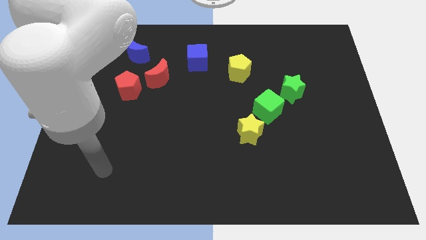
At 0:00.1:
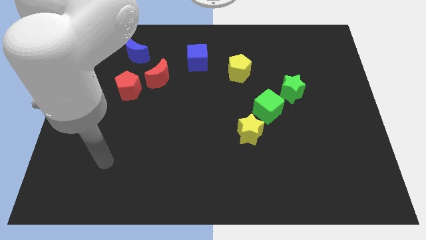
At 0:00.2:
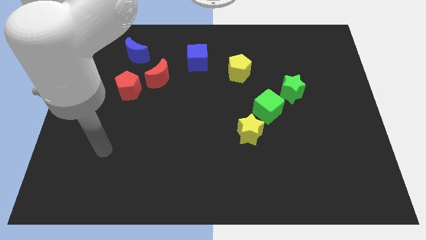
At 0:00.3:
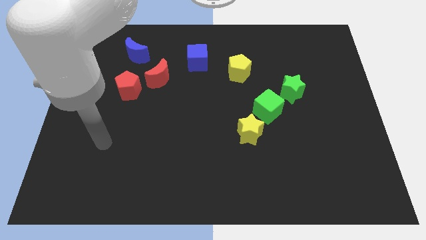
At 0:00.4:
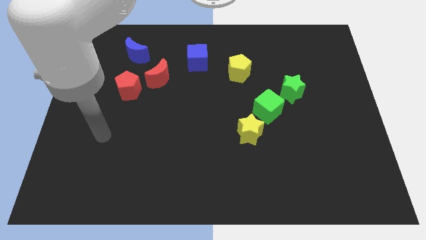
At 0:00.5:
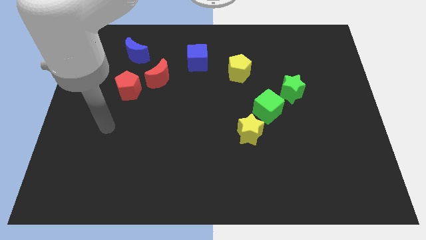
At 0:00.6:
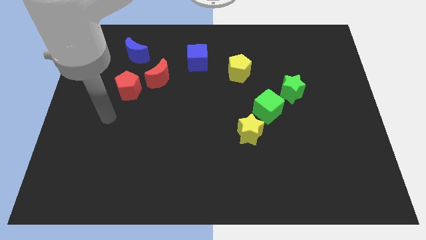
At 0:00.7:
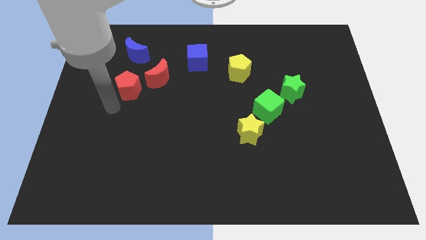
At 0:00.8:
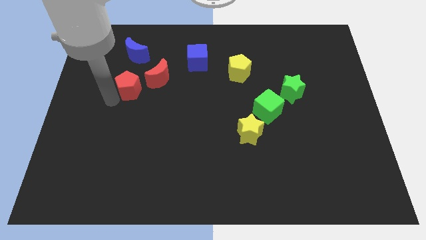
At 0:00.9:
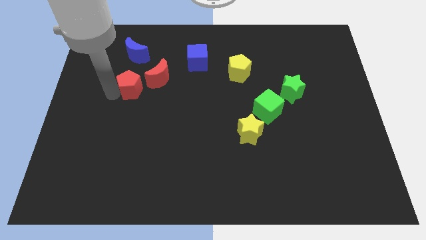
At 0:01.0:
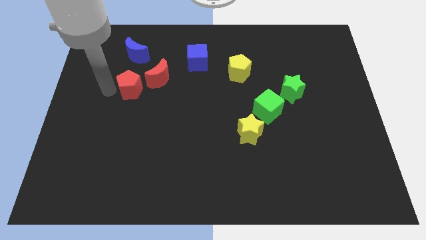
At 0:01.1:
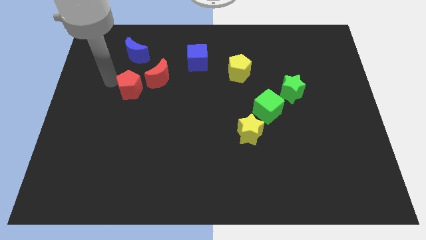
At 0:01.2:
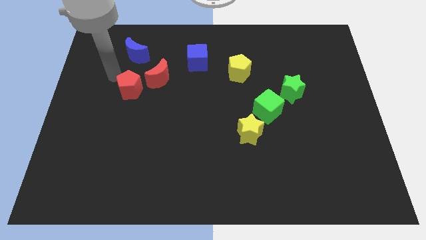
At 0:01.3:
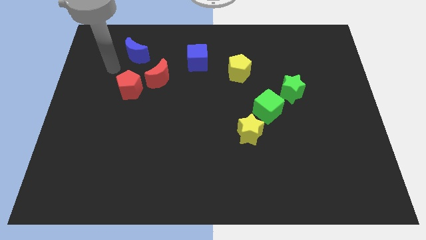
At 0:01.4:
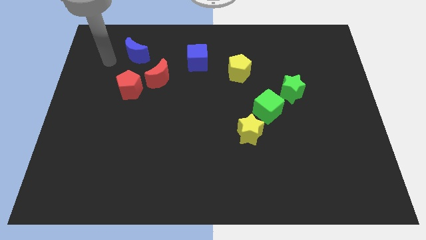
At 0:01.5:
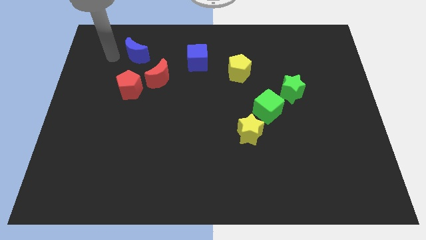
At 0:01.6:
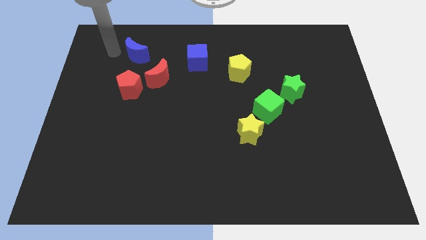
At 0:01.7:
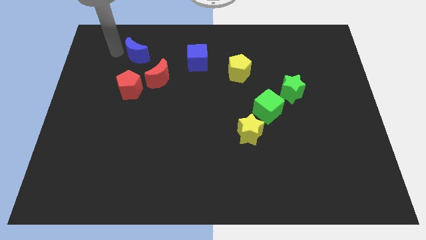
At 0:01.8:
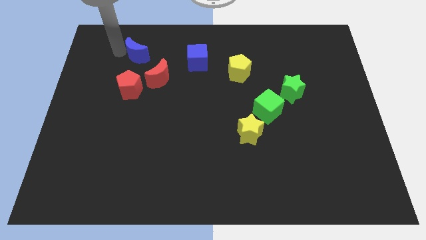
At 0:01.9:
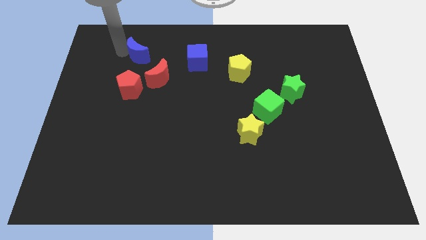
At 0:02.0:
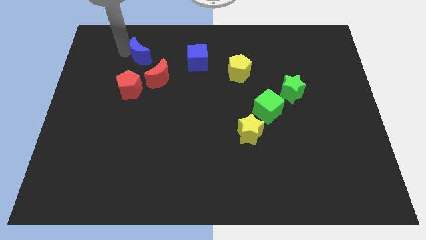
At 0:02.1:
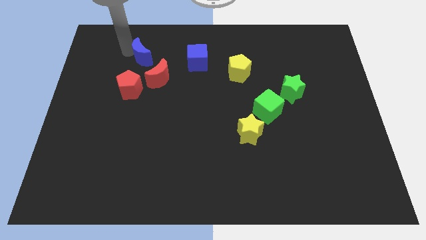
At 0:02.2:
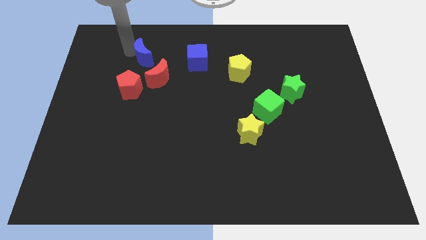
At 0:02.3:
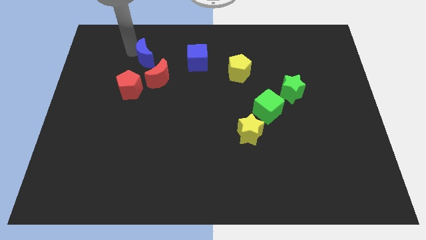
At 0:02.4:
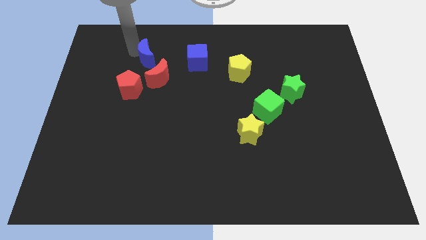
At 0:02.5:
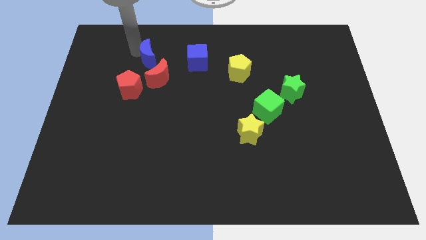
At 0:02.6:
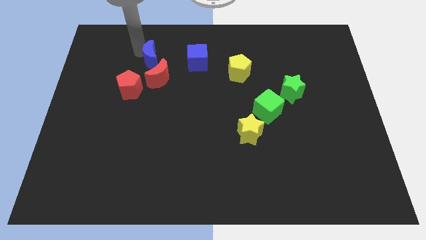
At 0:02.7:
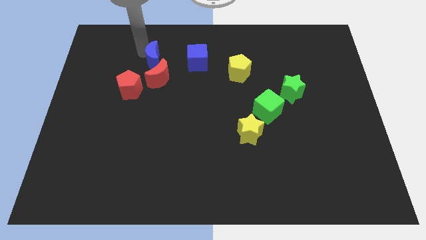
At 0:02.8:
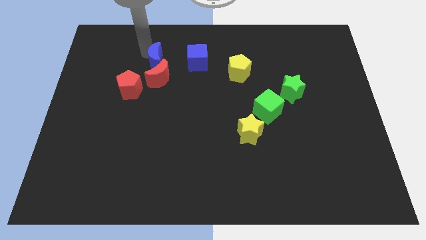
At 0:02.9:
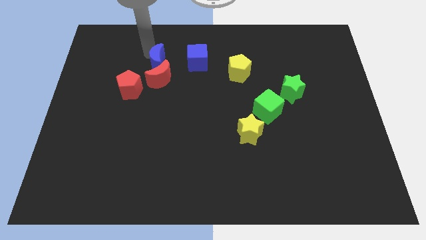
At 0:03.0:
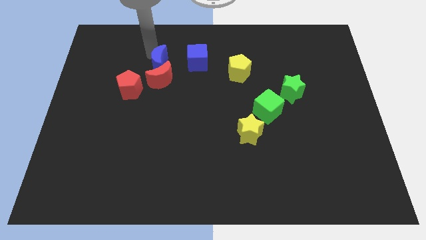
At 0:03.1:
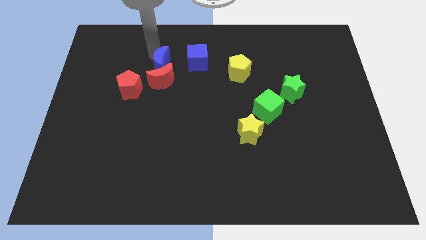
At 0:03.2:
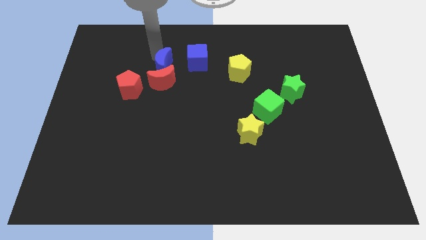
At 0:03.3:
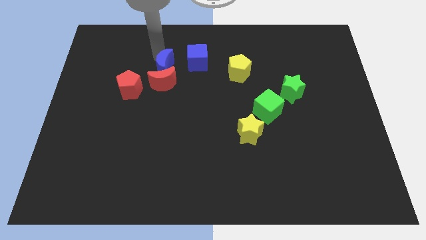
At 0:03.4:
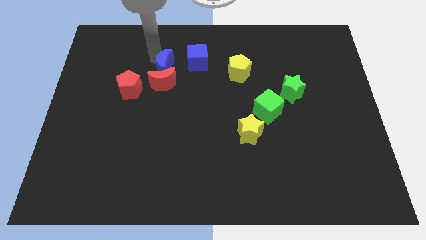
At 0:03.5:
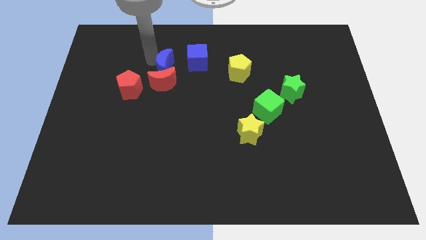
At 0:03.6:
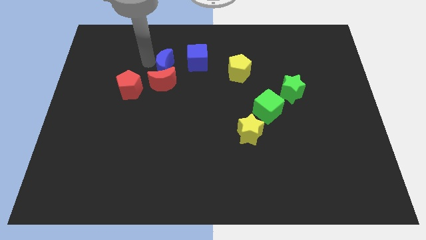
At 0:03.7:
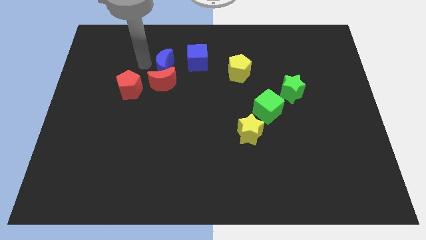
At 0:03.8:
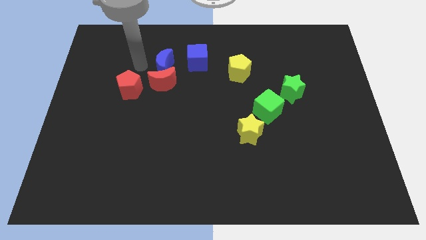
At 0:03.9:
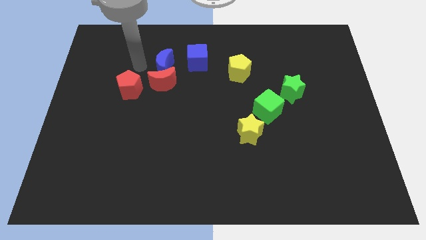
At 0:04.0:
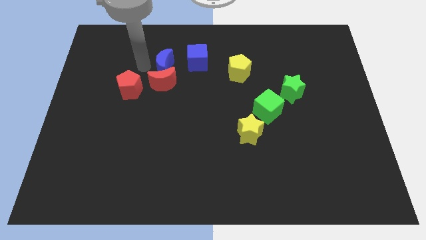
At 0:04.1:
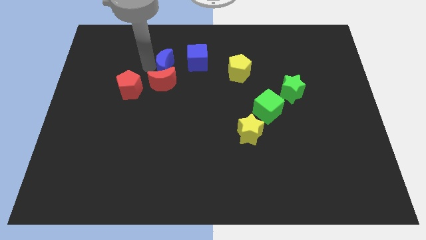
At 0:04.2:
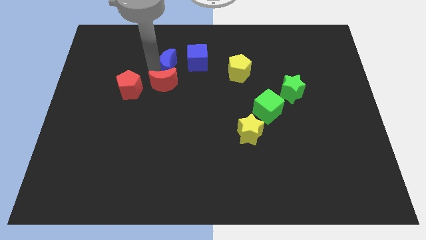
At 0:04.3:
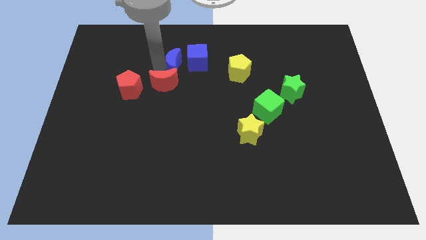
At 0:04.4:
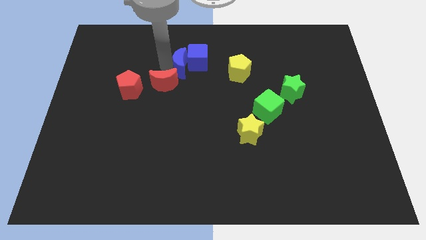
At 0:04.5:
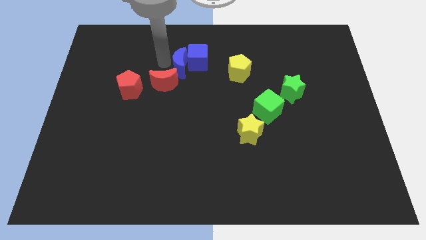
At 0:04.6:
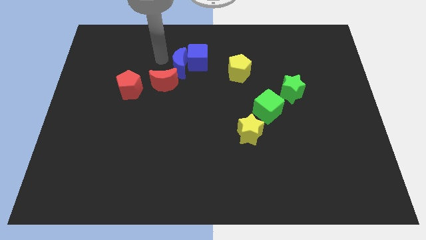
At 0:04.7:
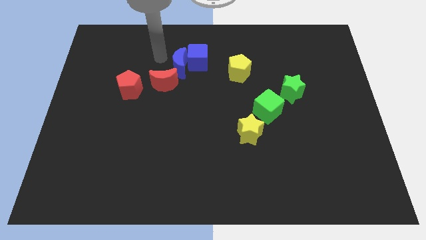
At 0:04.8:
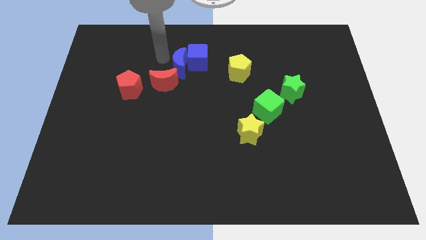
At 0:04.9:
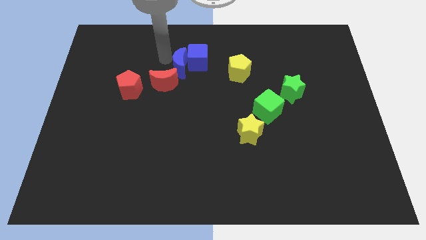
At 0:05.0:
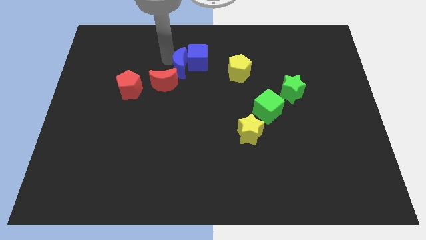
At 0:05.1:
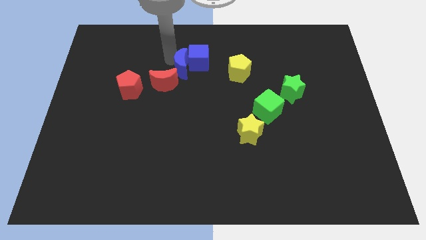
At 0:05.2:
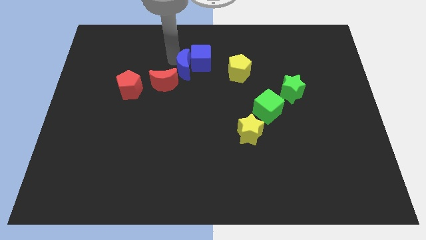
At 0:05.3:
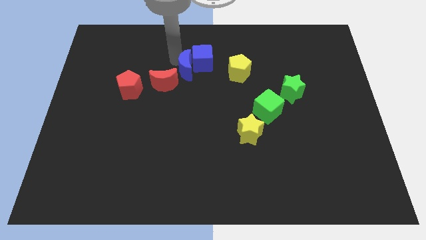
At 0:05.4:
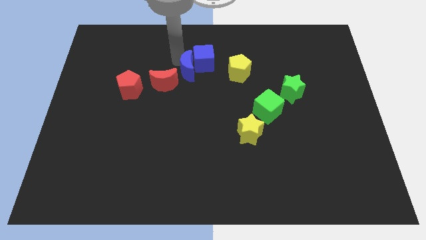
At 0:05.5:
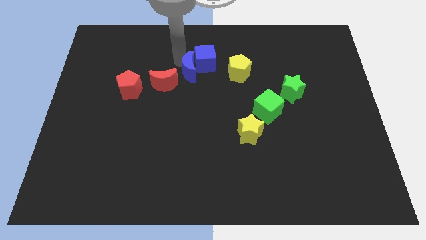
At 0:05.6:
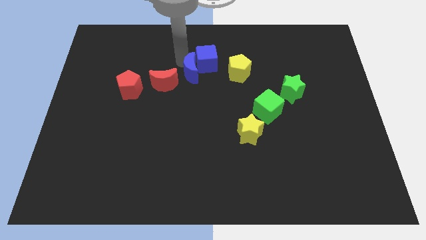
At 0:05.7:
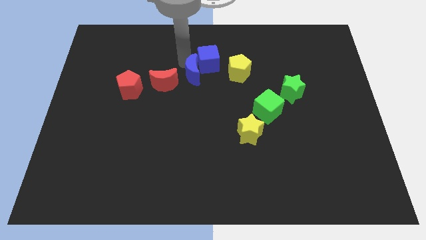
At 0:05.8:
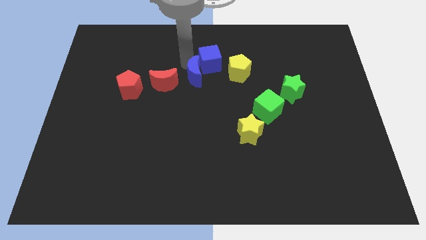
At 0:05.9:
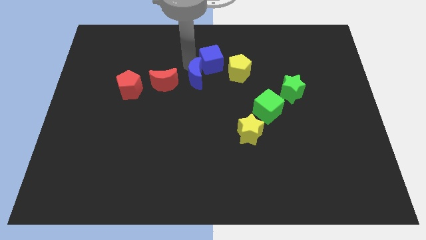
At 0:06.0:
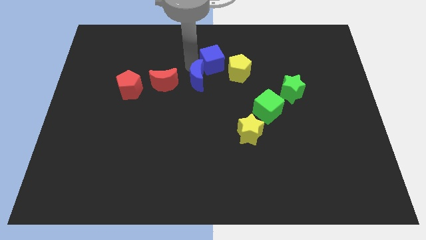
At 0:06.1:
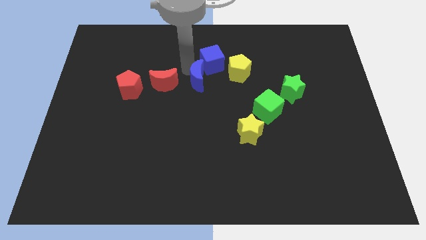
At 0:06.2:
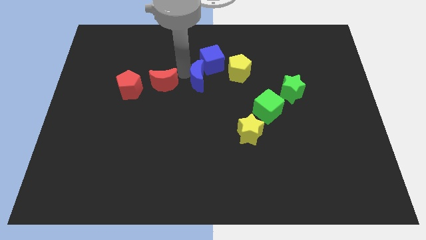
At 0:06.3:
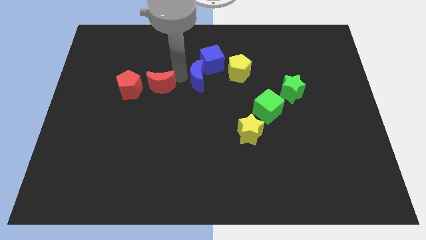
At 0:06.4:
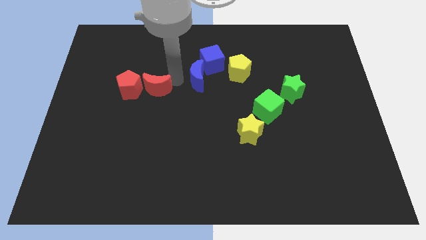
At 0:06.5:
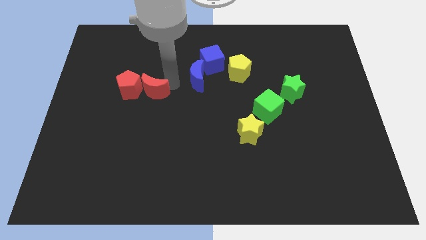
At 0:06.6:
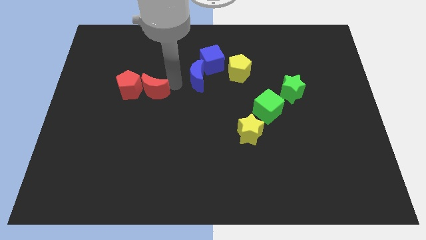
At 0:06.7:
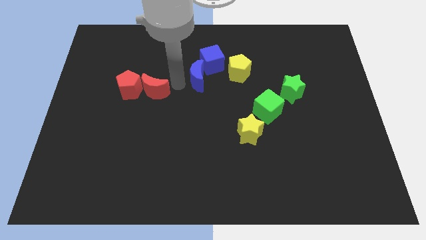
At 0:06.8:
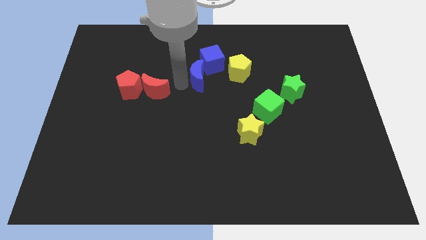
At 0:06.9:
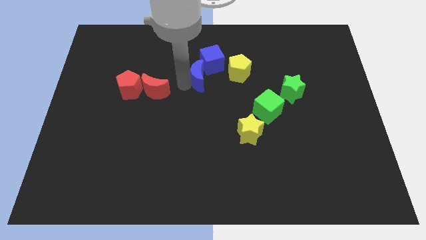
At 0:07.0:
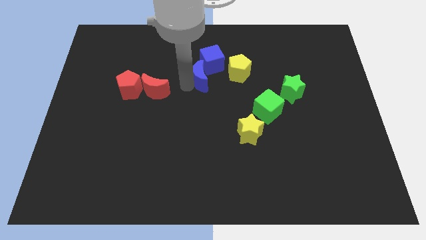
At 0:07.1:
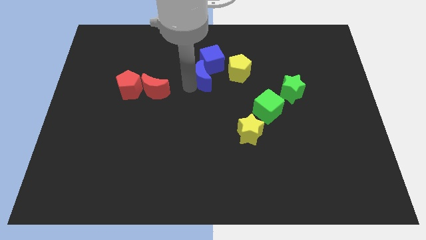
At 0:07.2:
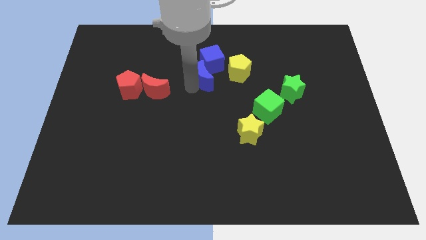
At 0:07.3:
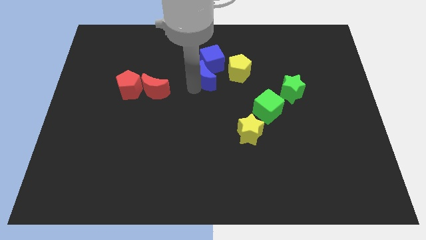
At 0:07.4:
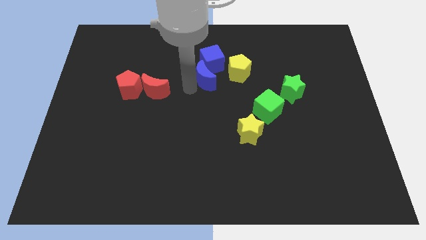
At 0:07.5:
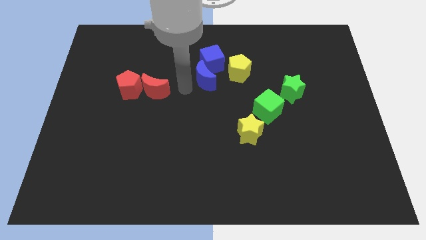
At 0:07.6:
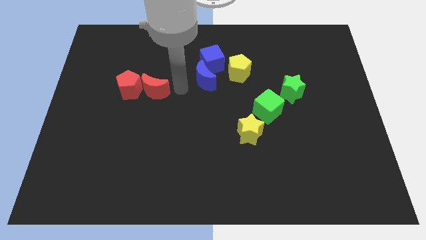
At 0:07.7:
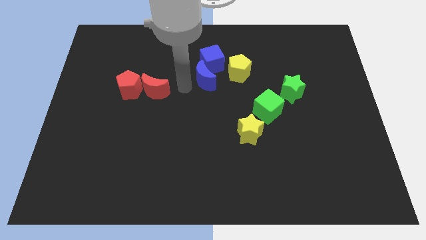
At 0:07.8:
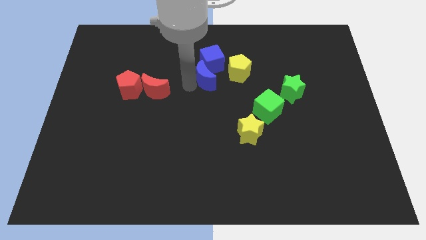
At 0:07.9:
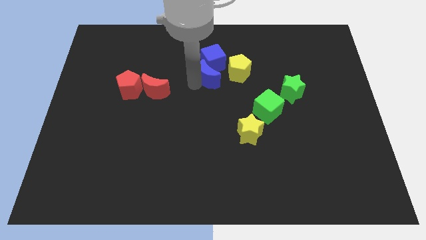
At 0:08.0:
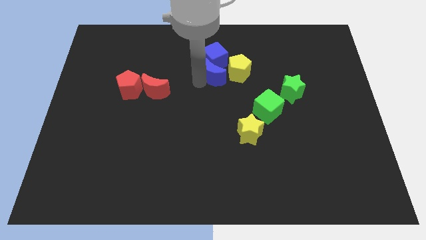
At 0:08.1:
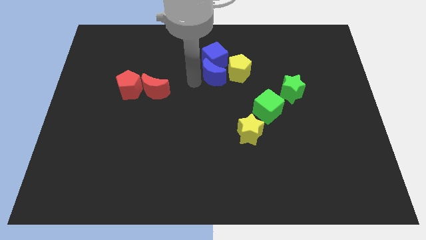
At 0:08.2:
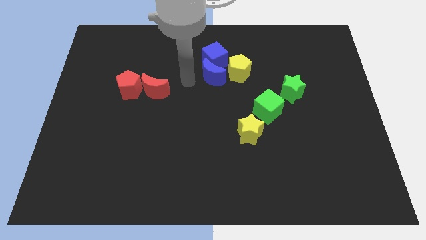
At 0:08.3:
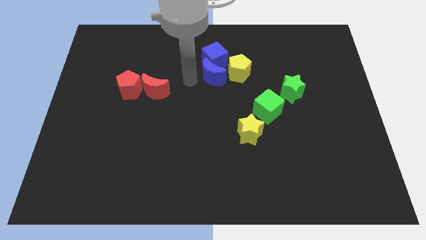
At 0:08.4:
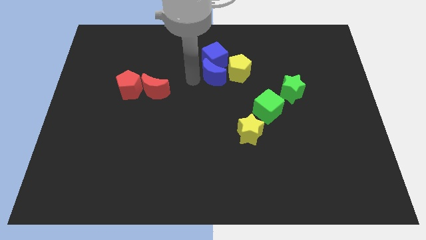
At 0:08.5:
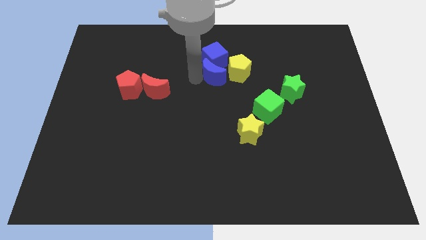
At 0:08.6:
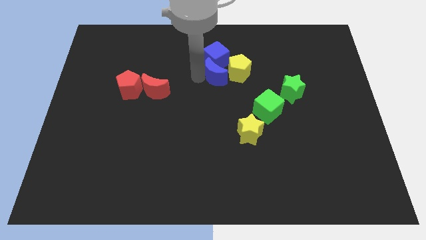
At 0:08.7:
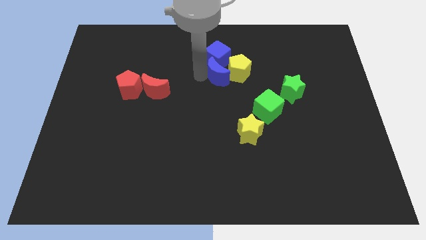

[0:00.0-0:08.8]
move the blue moon close to the yellow pentagon
